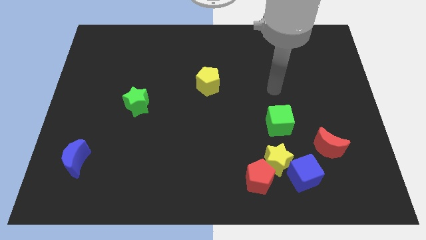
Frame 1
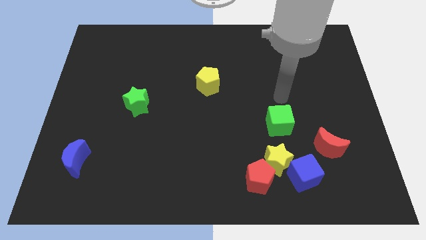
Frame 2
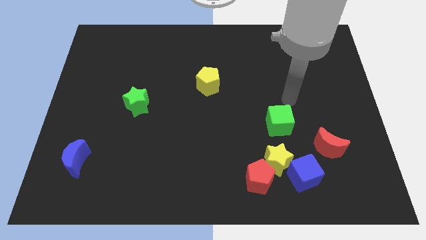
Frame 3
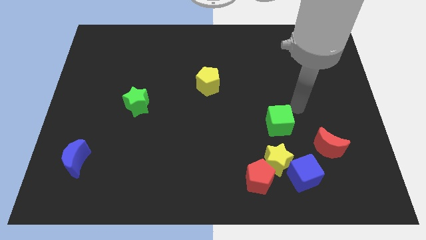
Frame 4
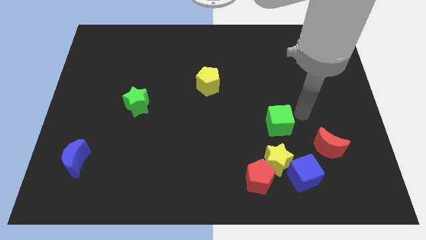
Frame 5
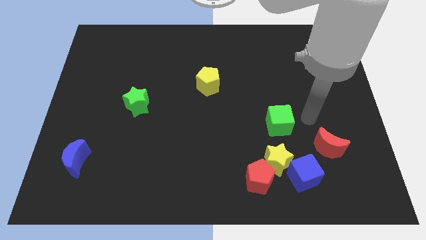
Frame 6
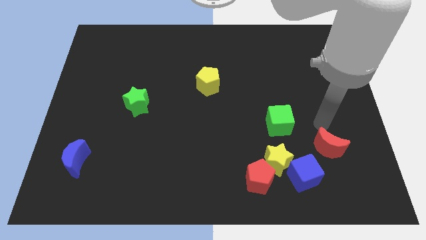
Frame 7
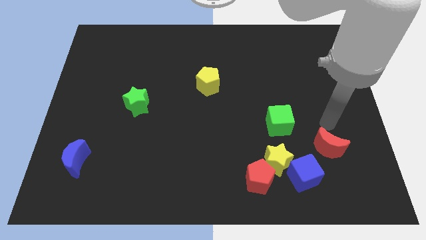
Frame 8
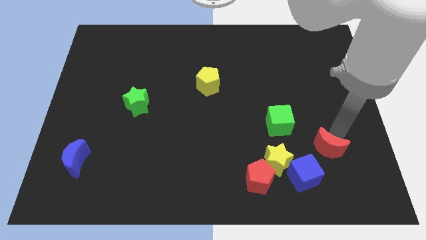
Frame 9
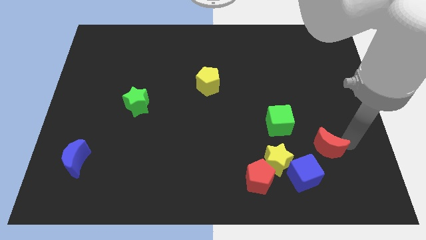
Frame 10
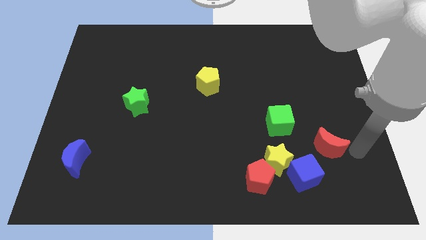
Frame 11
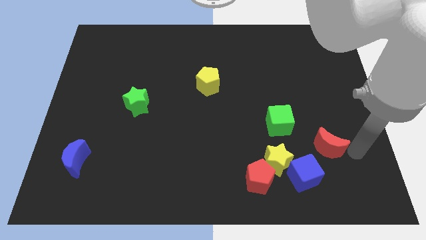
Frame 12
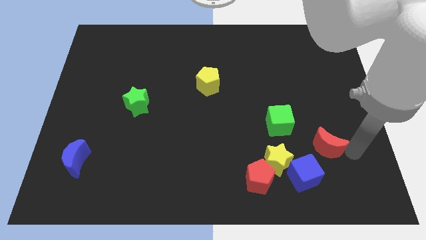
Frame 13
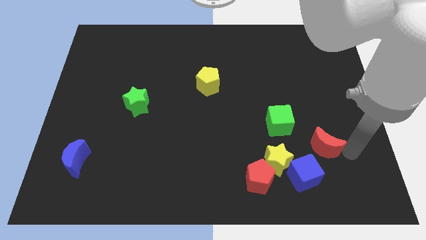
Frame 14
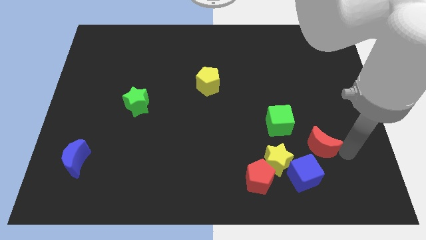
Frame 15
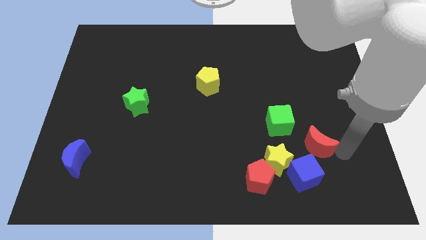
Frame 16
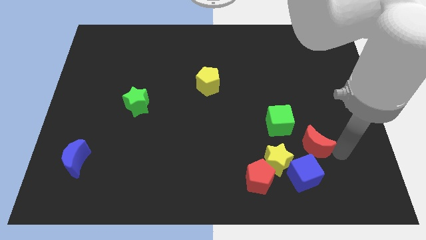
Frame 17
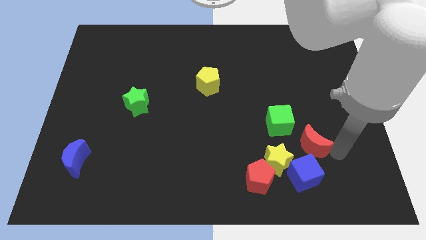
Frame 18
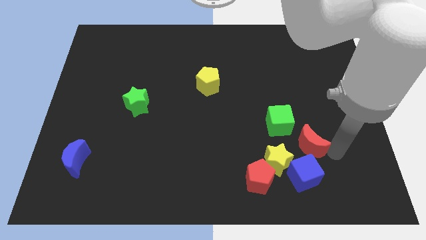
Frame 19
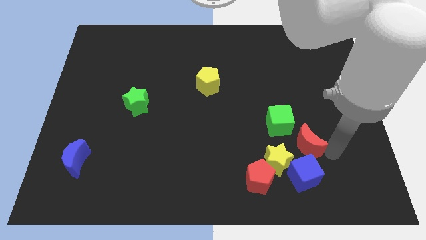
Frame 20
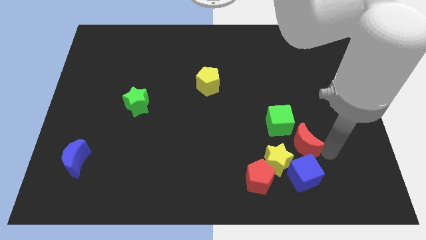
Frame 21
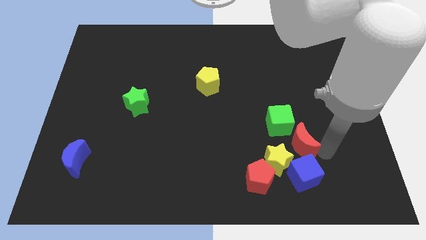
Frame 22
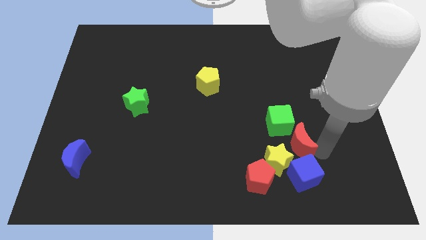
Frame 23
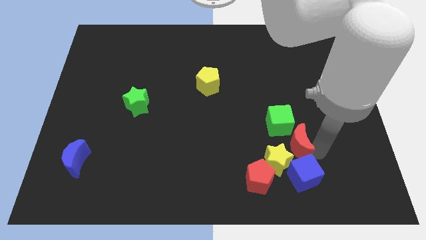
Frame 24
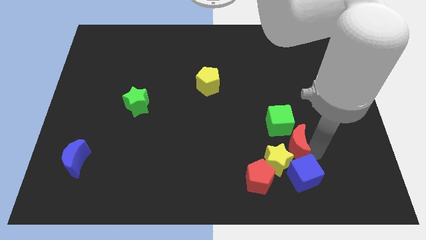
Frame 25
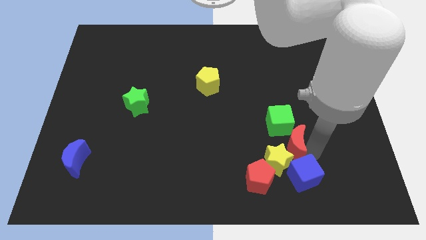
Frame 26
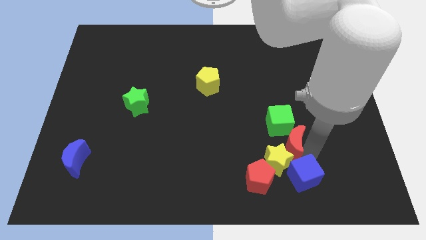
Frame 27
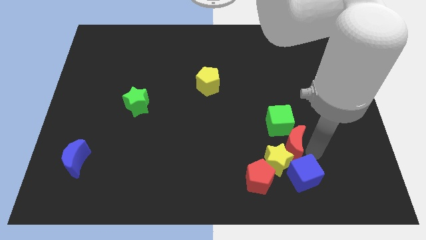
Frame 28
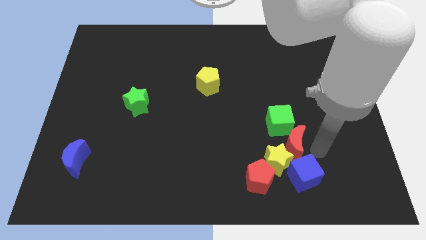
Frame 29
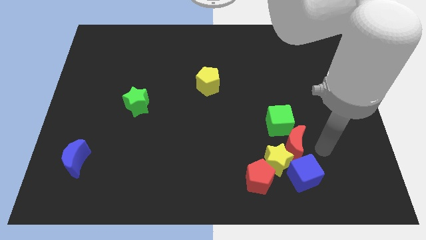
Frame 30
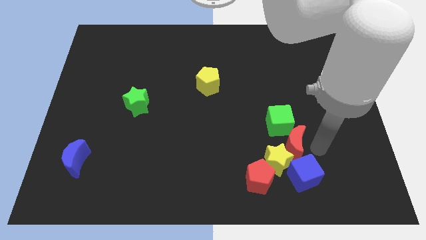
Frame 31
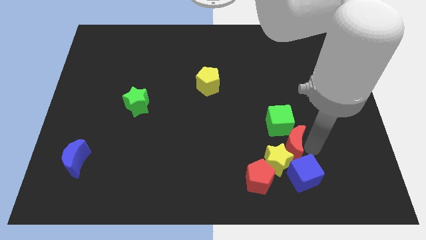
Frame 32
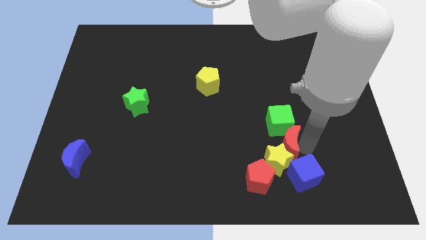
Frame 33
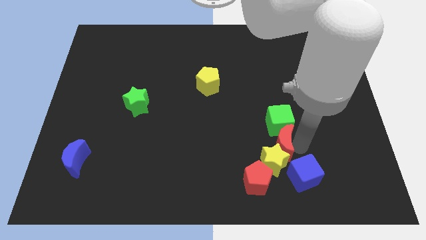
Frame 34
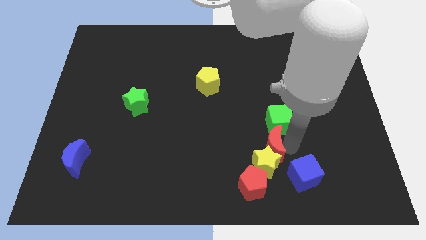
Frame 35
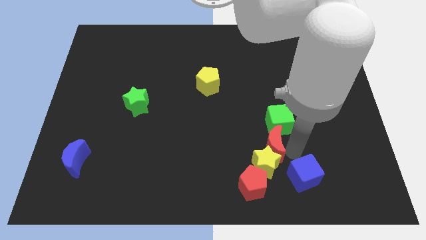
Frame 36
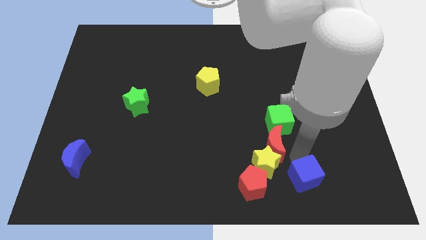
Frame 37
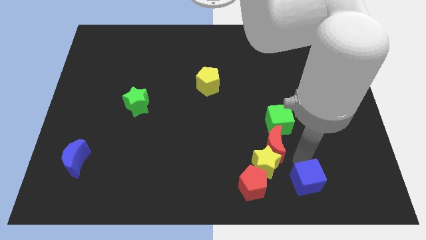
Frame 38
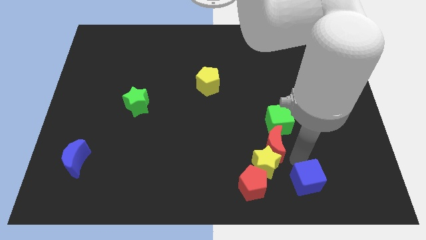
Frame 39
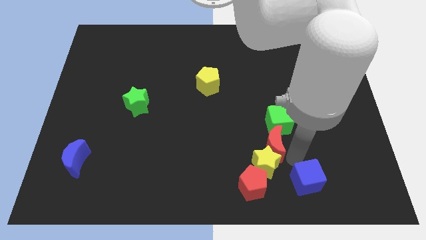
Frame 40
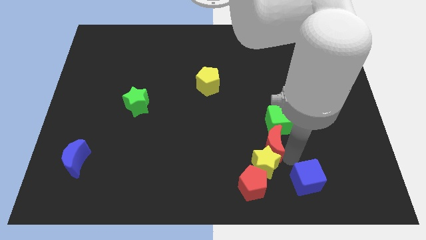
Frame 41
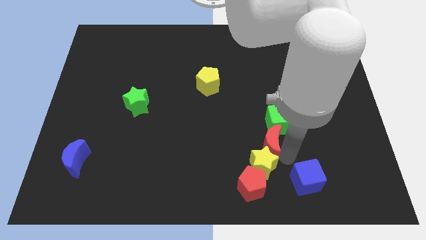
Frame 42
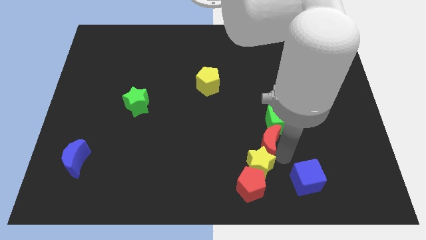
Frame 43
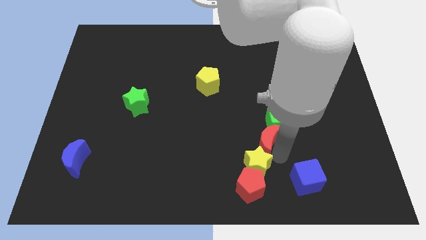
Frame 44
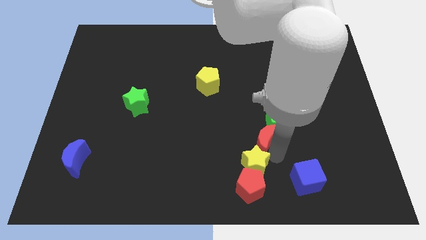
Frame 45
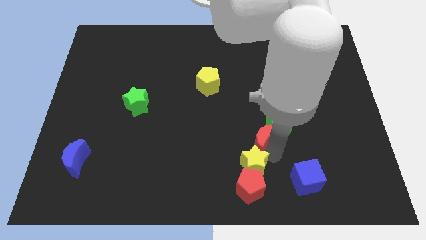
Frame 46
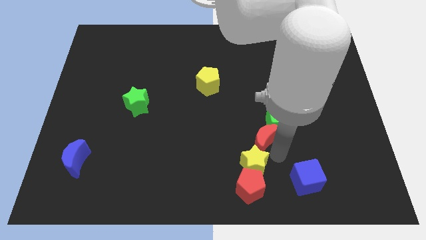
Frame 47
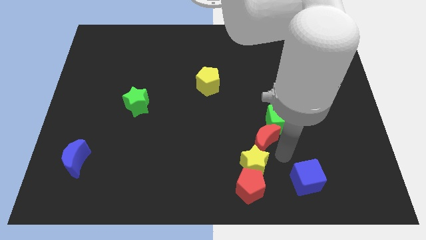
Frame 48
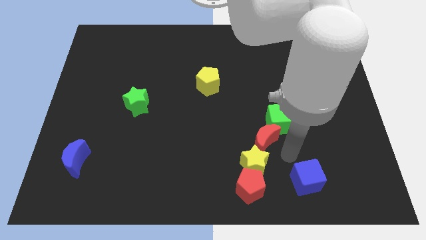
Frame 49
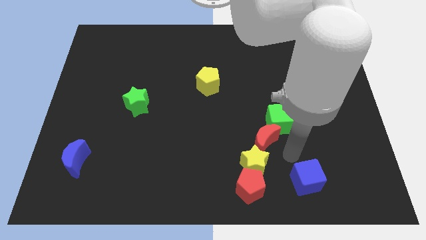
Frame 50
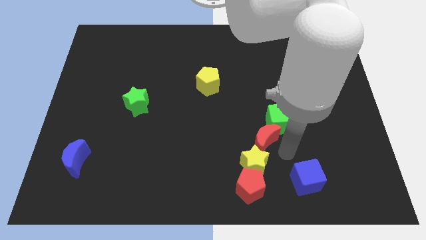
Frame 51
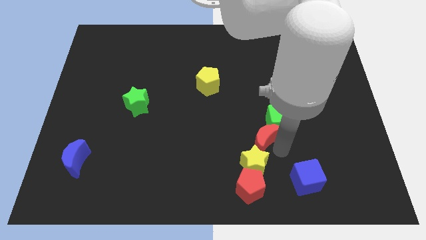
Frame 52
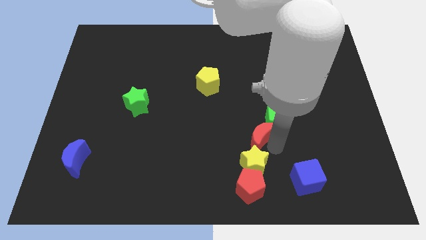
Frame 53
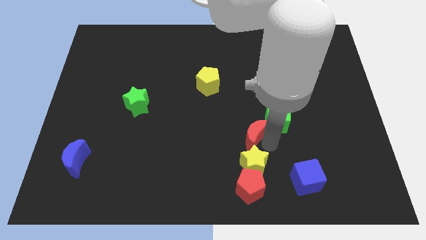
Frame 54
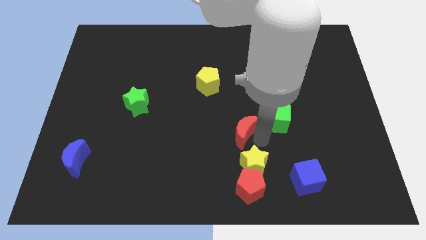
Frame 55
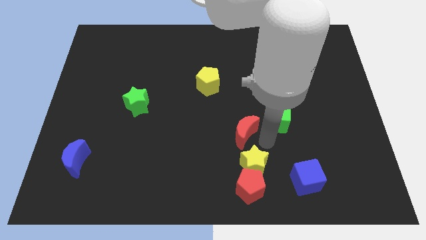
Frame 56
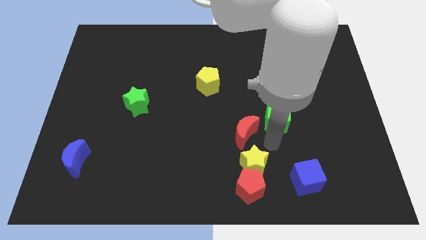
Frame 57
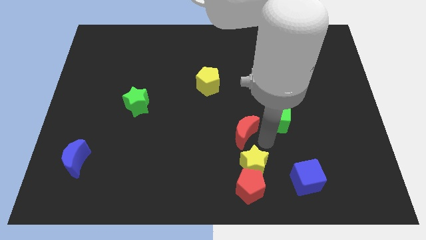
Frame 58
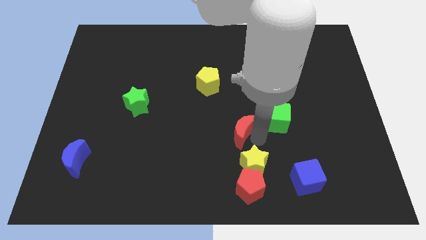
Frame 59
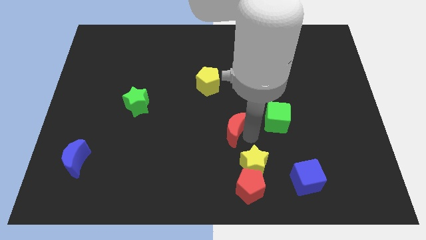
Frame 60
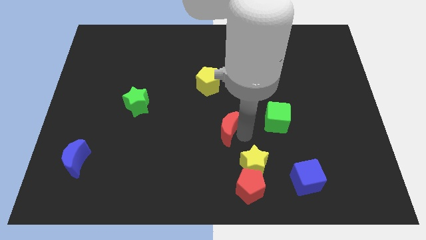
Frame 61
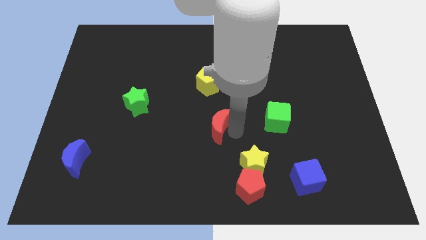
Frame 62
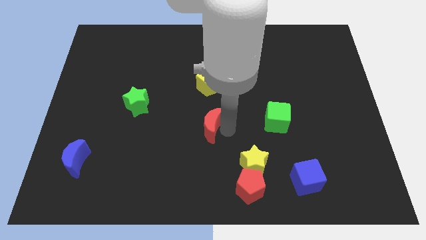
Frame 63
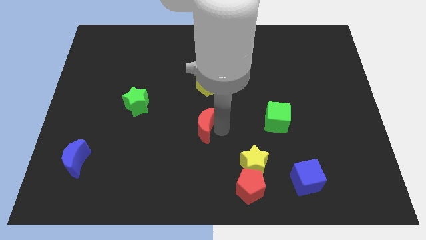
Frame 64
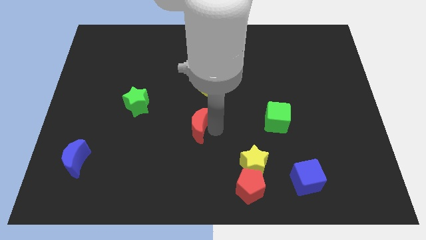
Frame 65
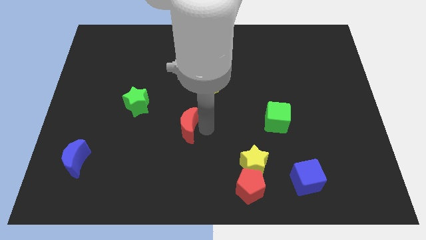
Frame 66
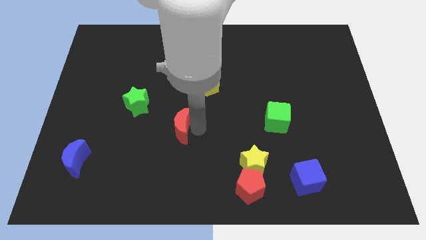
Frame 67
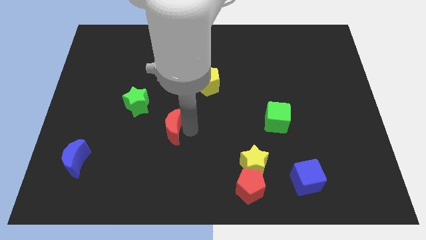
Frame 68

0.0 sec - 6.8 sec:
put the red moon diagonally down and to the right of the green star
